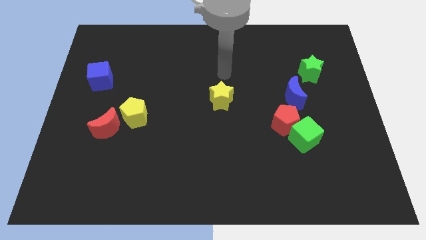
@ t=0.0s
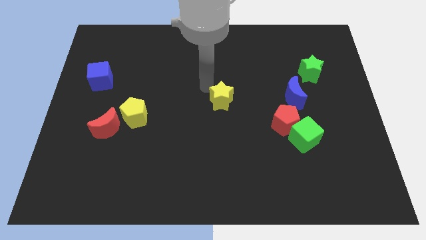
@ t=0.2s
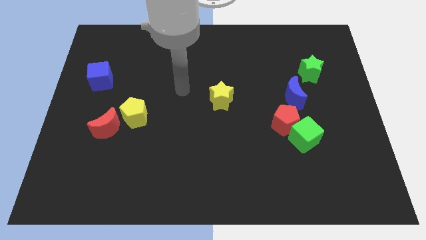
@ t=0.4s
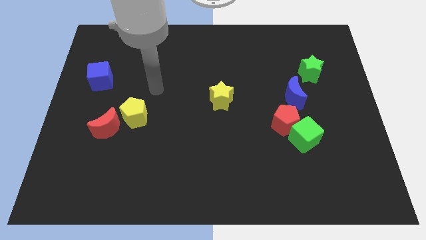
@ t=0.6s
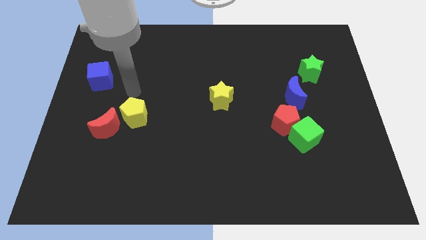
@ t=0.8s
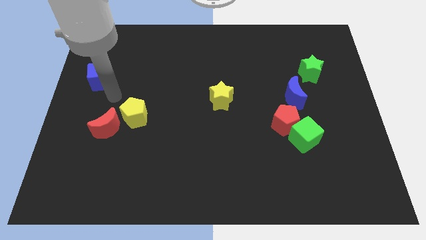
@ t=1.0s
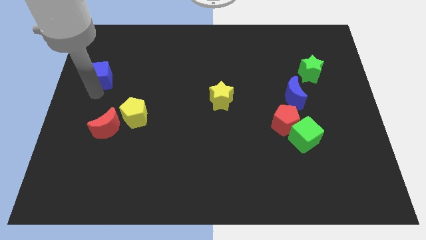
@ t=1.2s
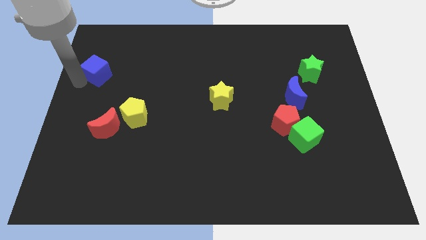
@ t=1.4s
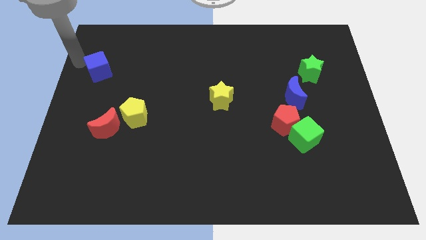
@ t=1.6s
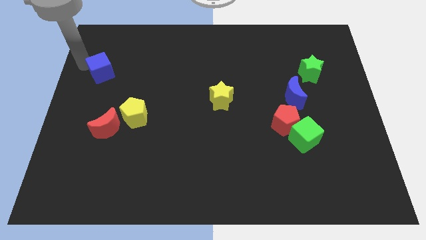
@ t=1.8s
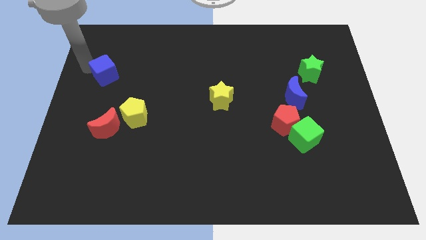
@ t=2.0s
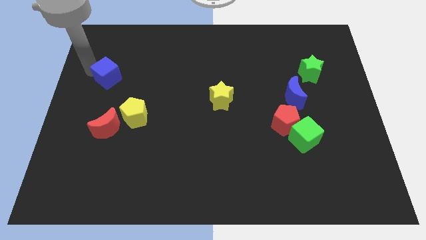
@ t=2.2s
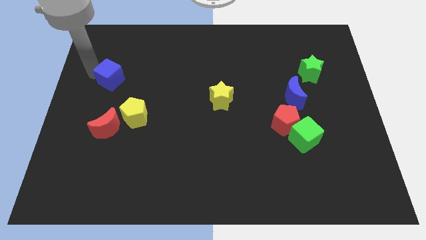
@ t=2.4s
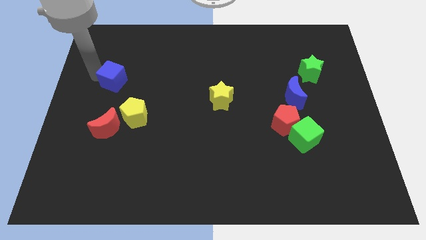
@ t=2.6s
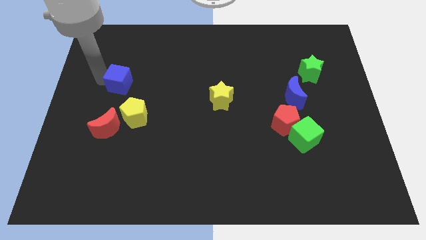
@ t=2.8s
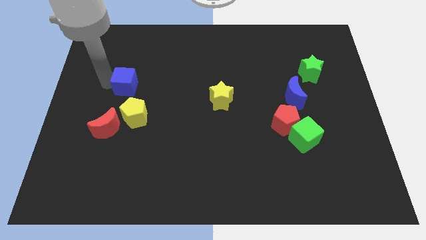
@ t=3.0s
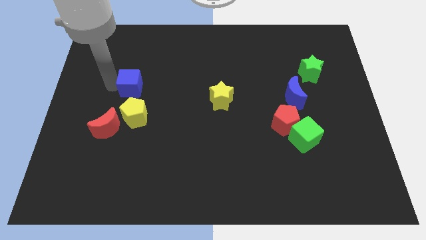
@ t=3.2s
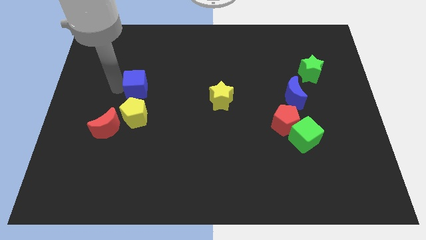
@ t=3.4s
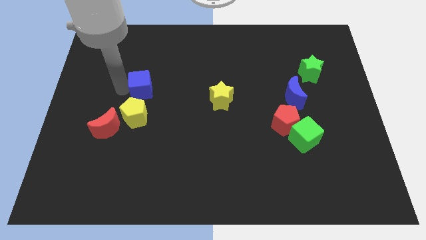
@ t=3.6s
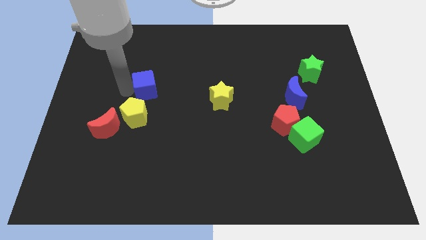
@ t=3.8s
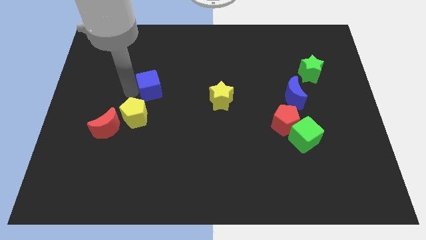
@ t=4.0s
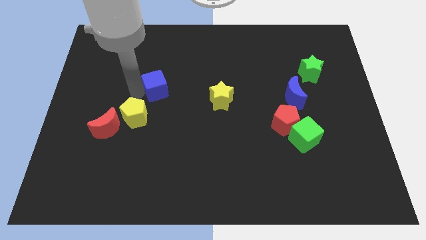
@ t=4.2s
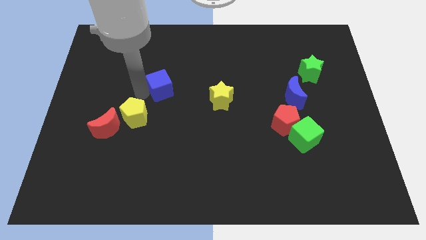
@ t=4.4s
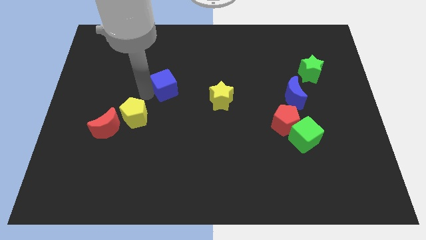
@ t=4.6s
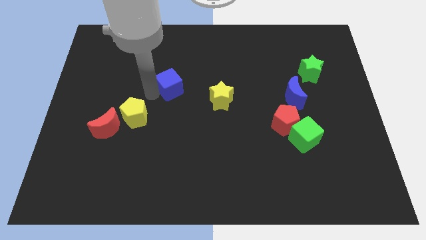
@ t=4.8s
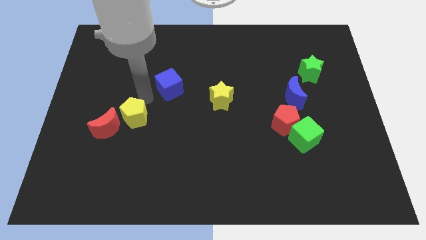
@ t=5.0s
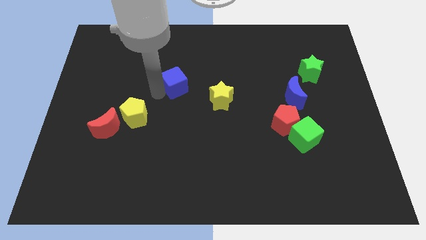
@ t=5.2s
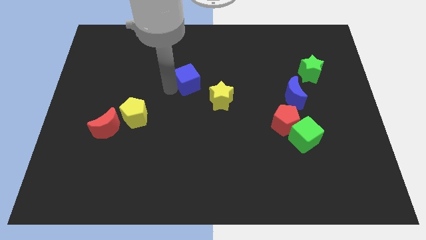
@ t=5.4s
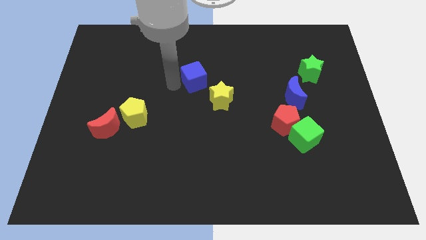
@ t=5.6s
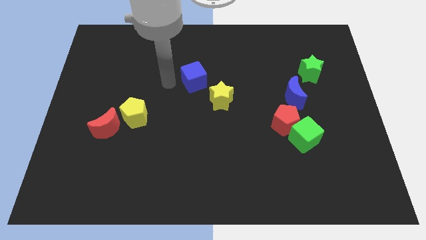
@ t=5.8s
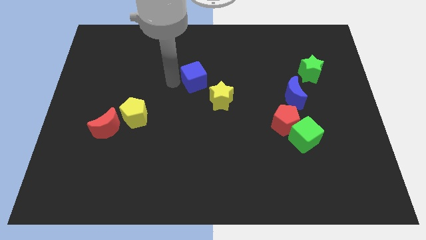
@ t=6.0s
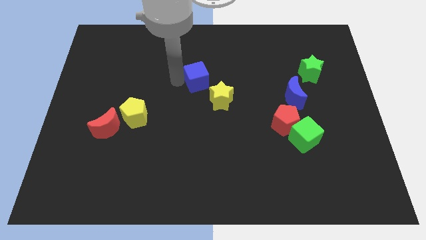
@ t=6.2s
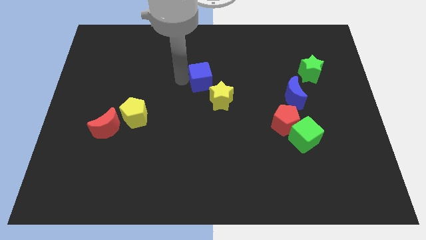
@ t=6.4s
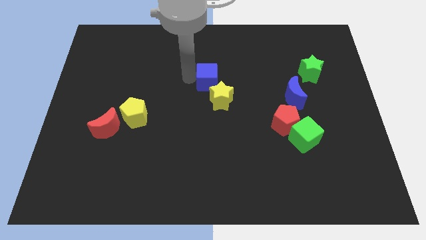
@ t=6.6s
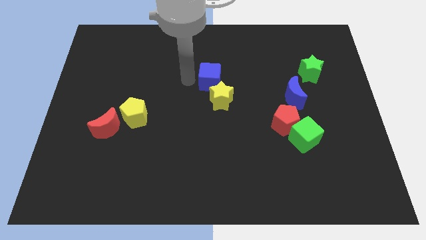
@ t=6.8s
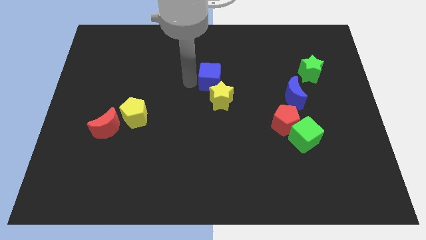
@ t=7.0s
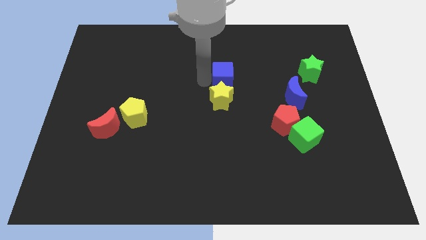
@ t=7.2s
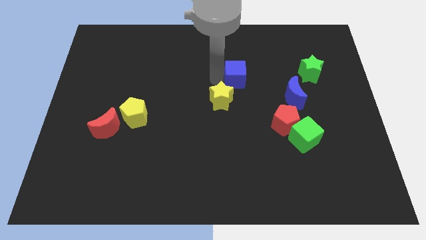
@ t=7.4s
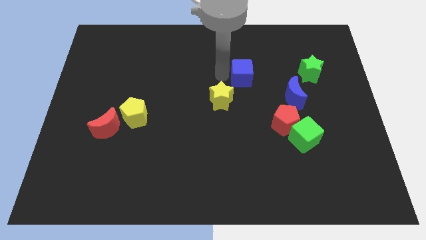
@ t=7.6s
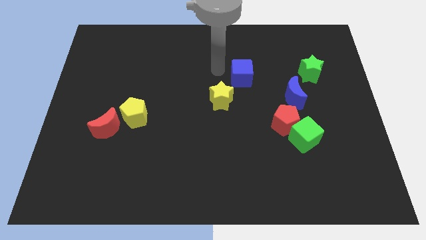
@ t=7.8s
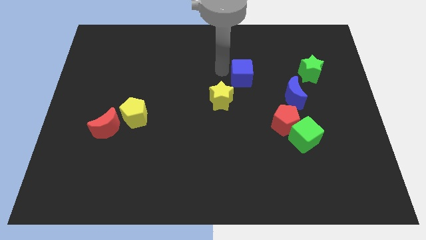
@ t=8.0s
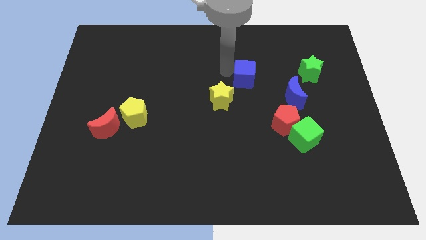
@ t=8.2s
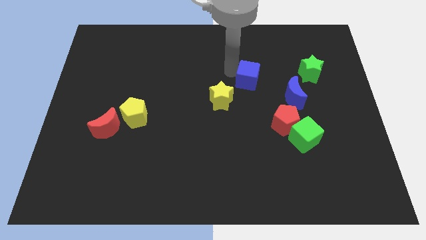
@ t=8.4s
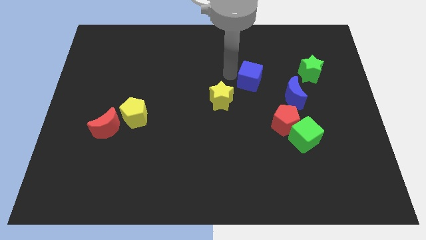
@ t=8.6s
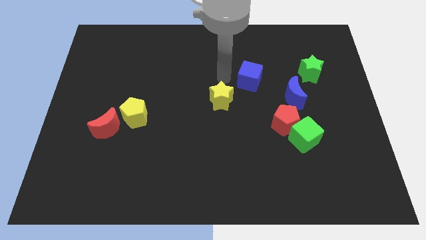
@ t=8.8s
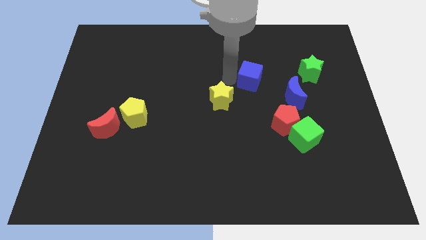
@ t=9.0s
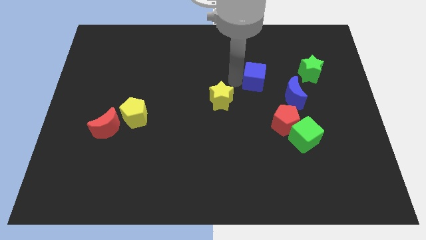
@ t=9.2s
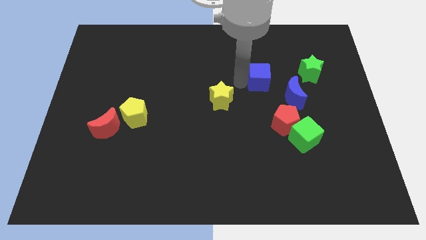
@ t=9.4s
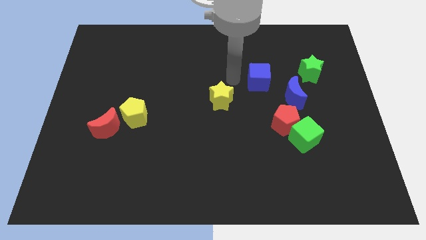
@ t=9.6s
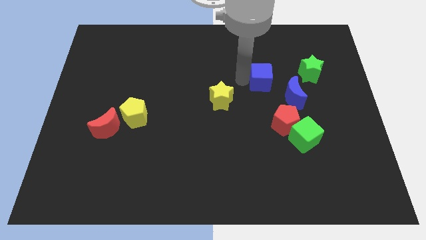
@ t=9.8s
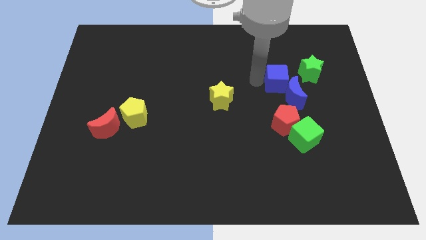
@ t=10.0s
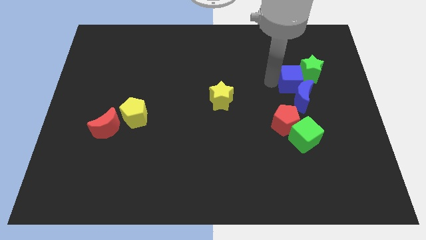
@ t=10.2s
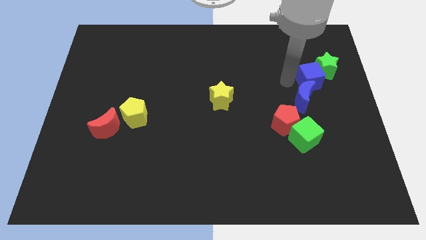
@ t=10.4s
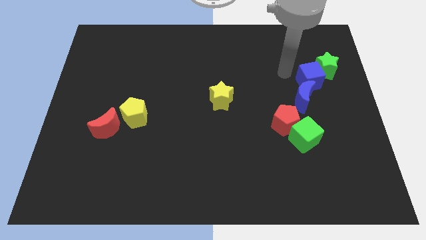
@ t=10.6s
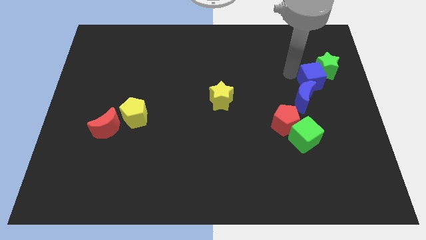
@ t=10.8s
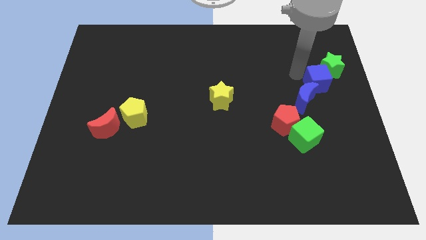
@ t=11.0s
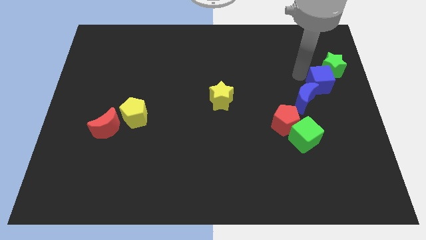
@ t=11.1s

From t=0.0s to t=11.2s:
slide the blue cube to the right side
